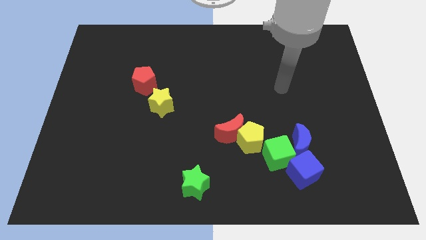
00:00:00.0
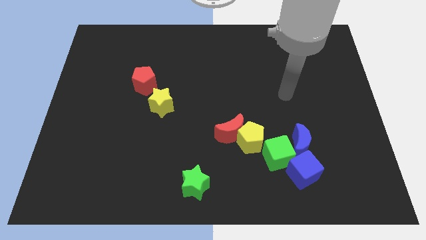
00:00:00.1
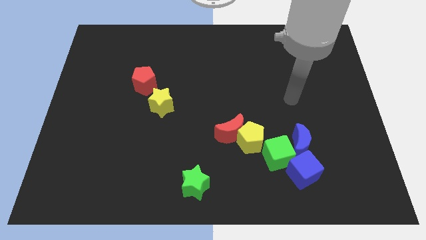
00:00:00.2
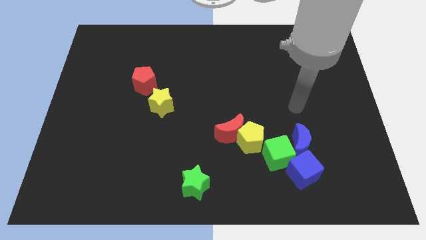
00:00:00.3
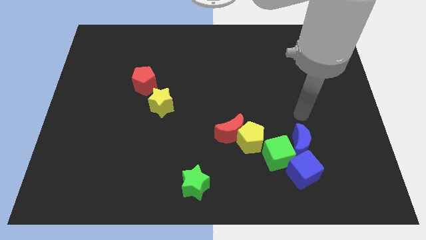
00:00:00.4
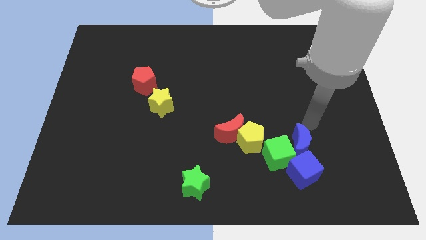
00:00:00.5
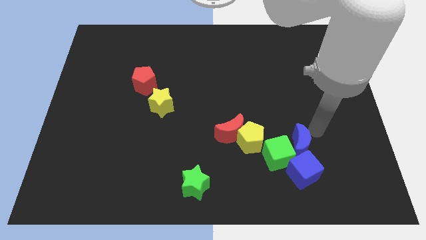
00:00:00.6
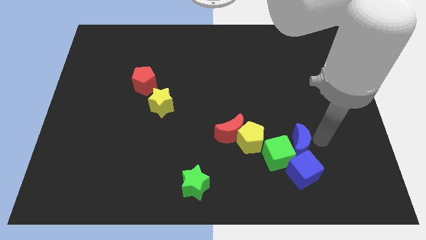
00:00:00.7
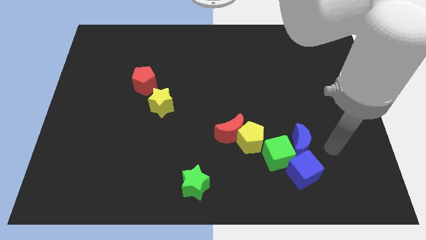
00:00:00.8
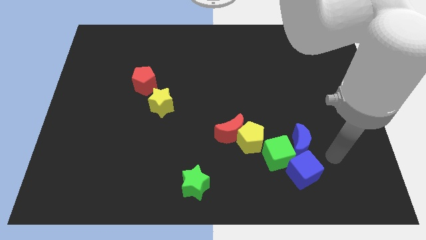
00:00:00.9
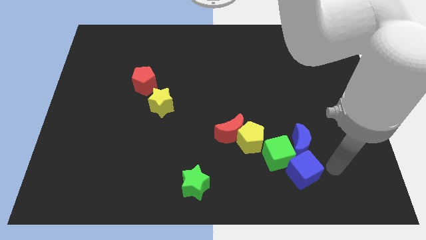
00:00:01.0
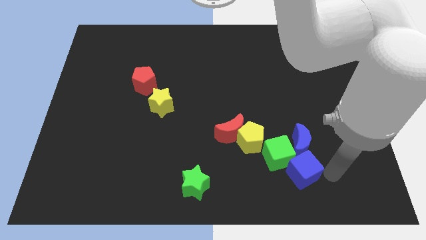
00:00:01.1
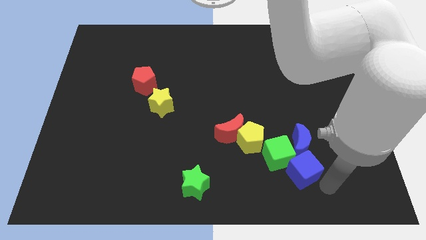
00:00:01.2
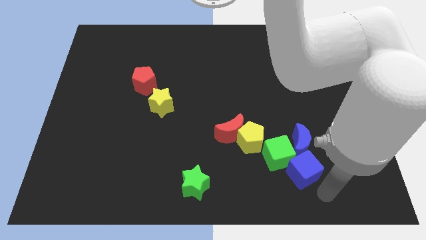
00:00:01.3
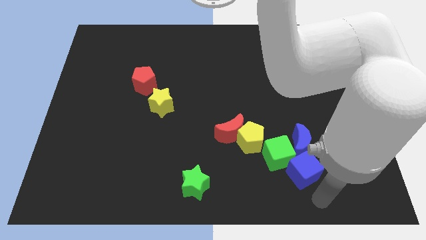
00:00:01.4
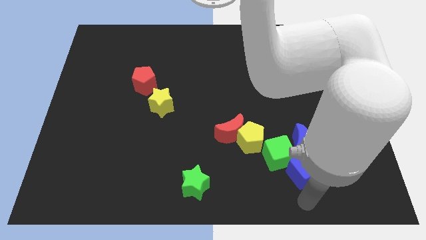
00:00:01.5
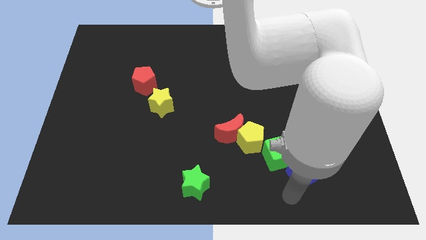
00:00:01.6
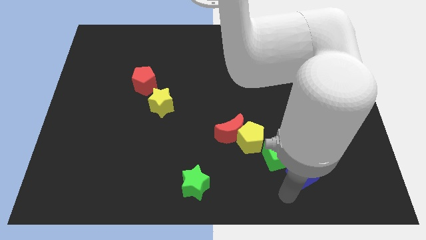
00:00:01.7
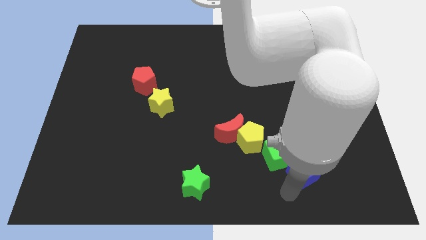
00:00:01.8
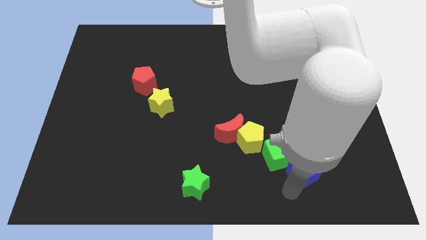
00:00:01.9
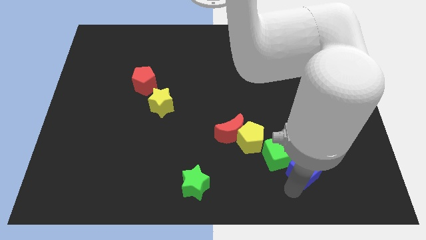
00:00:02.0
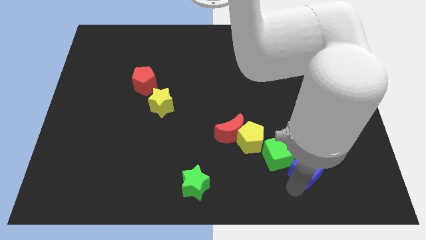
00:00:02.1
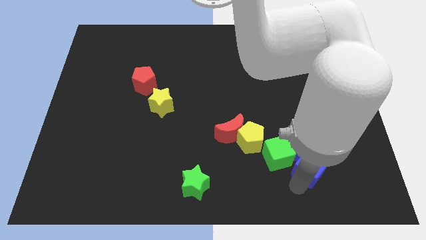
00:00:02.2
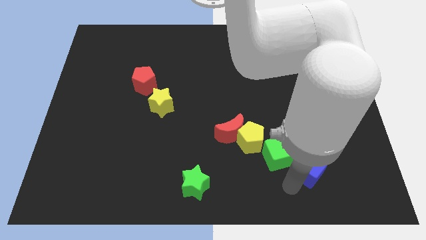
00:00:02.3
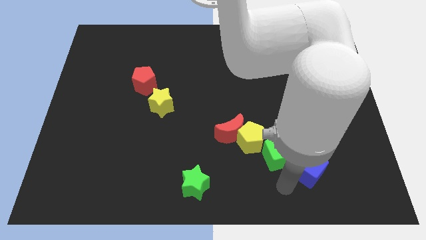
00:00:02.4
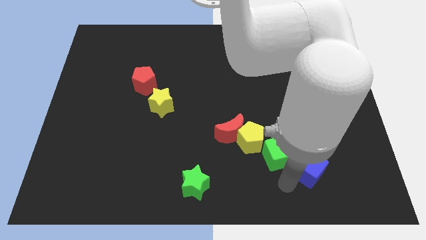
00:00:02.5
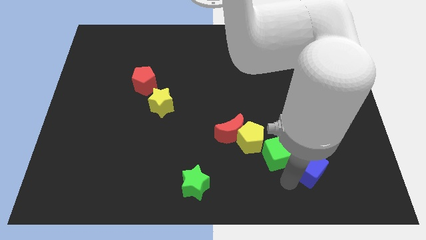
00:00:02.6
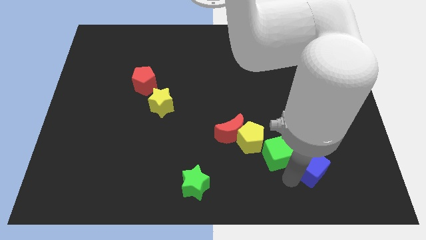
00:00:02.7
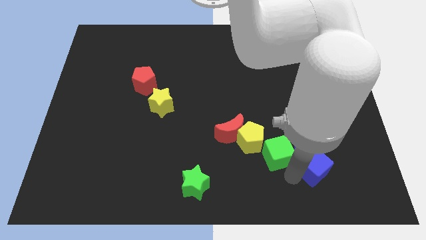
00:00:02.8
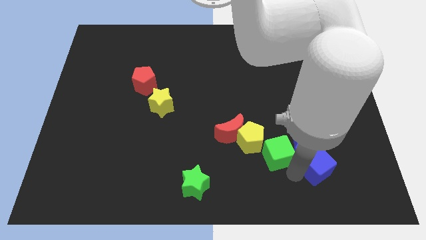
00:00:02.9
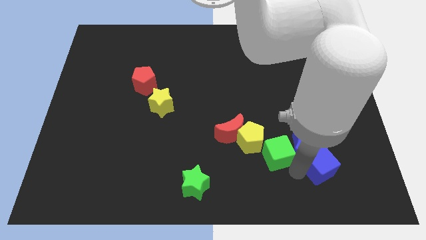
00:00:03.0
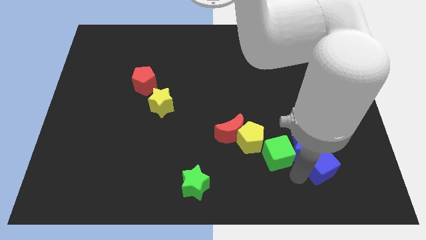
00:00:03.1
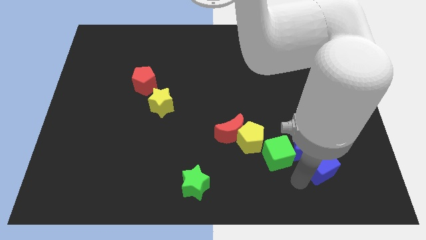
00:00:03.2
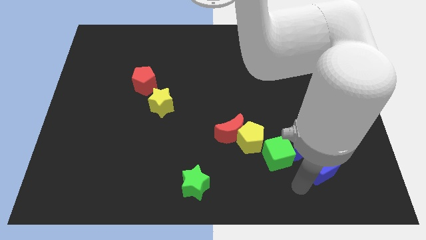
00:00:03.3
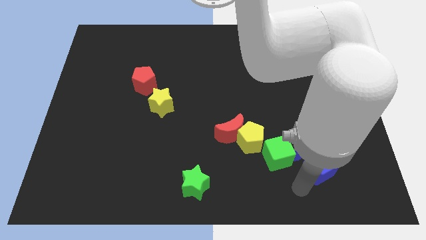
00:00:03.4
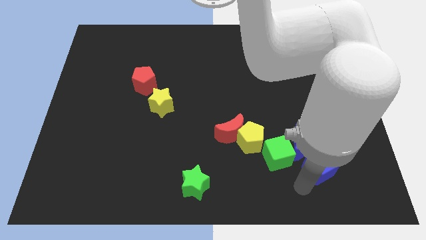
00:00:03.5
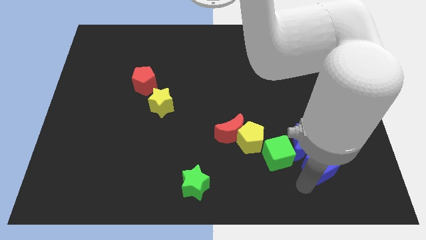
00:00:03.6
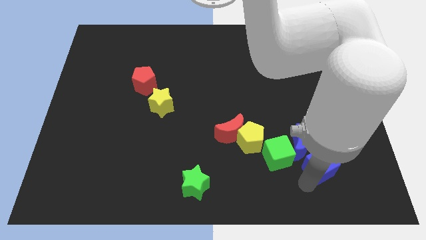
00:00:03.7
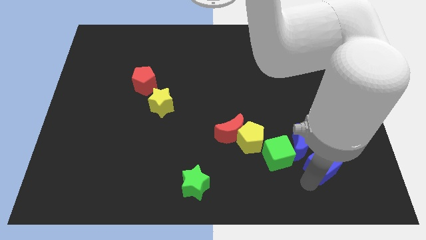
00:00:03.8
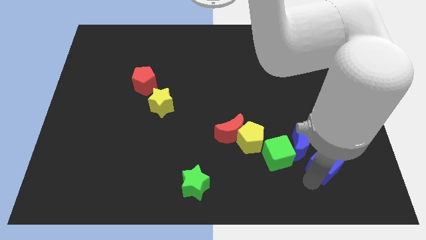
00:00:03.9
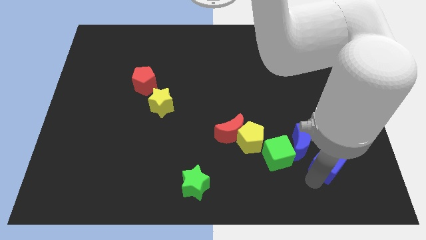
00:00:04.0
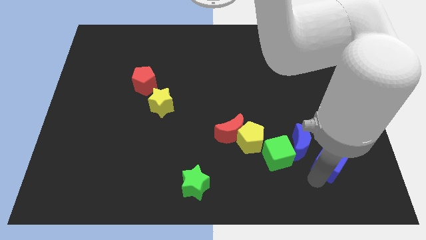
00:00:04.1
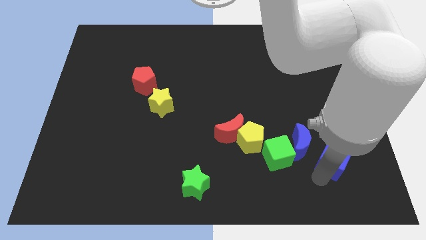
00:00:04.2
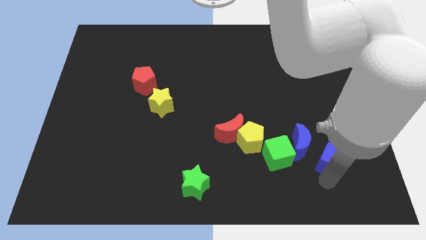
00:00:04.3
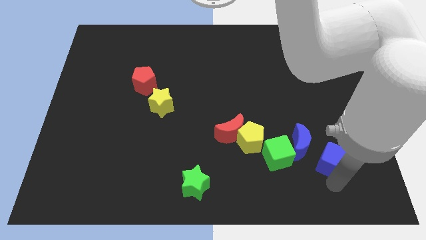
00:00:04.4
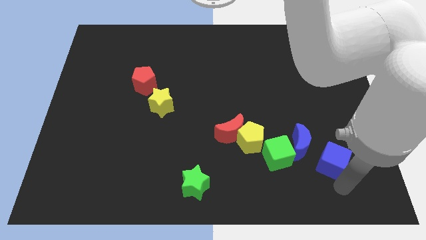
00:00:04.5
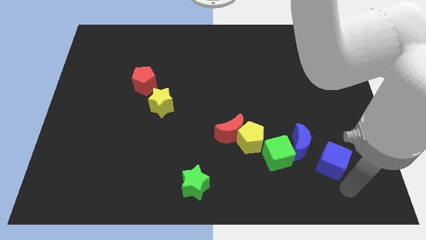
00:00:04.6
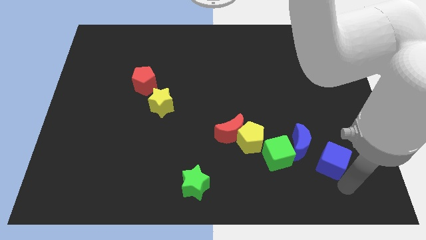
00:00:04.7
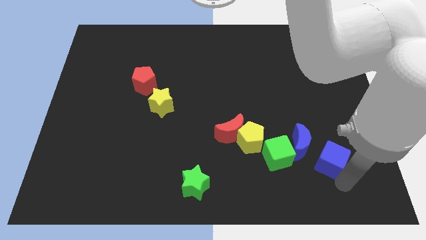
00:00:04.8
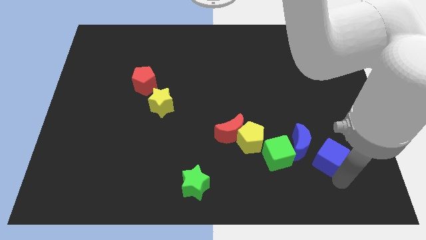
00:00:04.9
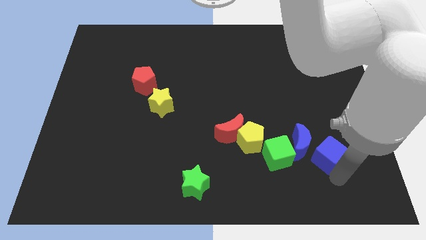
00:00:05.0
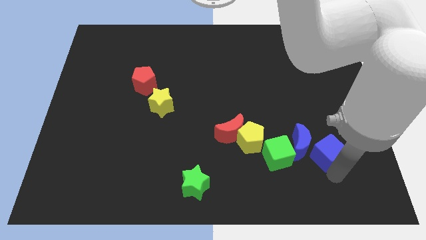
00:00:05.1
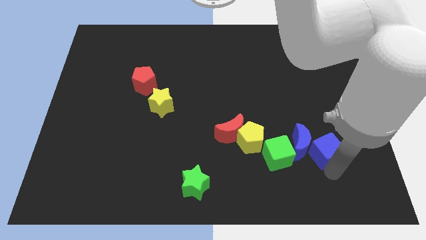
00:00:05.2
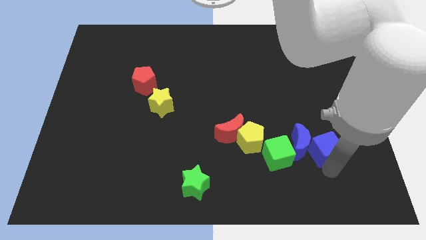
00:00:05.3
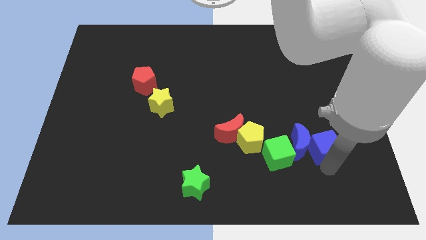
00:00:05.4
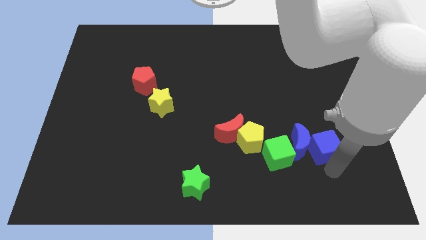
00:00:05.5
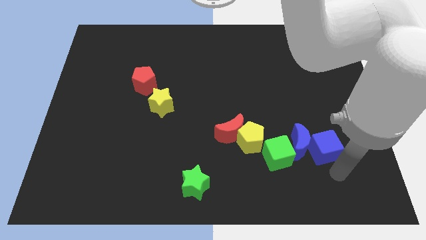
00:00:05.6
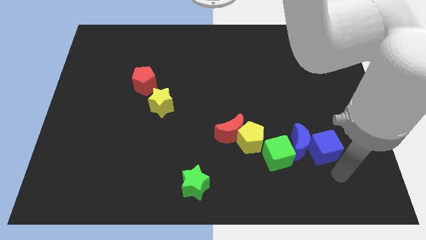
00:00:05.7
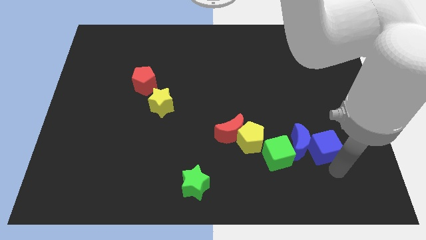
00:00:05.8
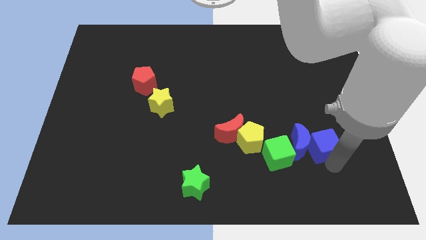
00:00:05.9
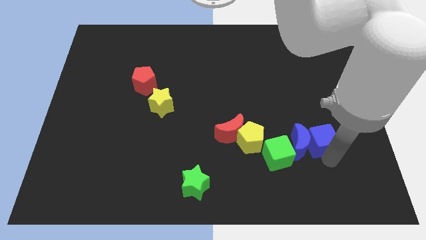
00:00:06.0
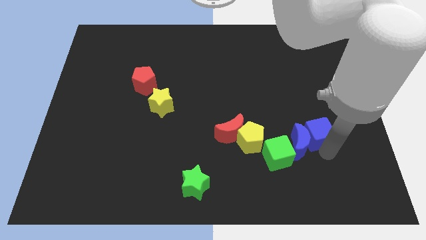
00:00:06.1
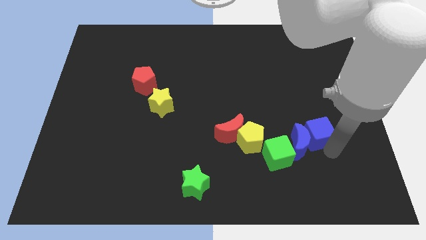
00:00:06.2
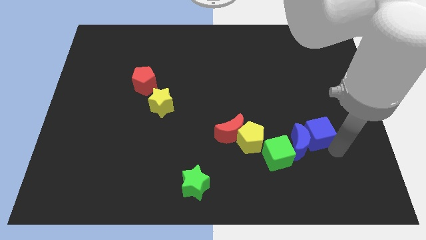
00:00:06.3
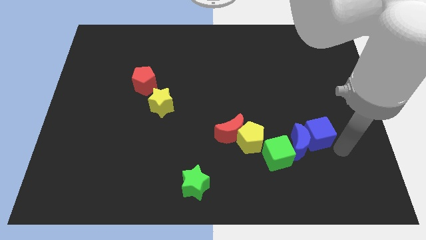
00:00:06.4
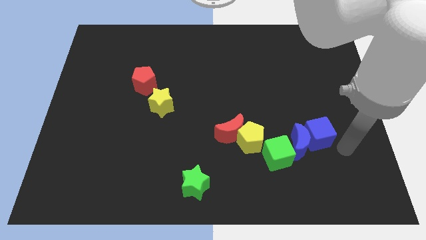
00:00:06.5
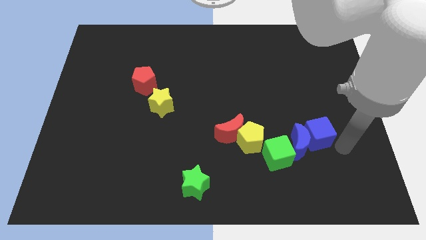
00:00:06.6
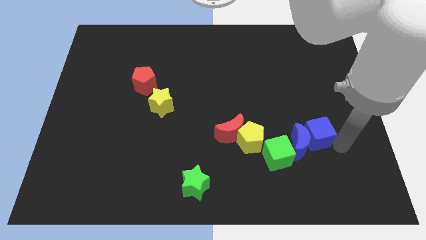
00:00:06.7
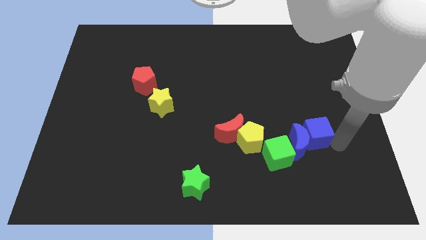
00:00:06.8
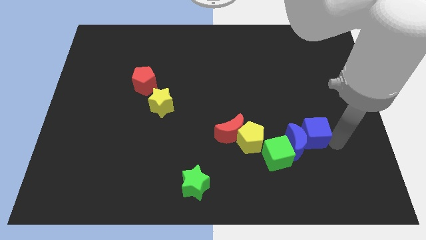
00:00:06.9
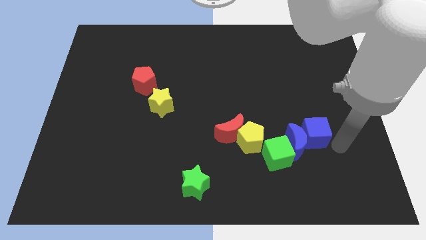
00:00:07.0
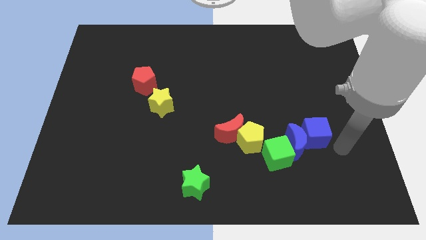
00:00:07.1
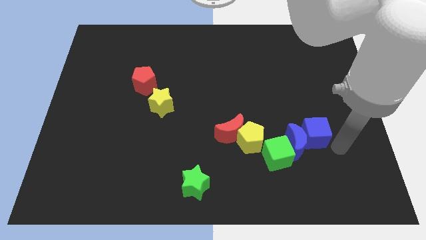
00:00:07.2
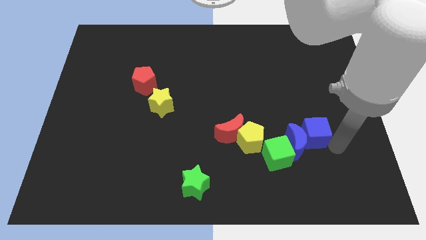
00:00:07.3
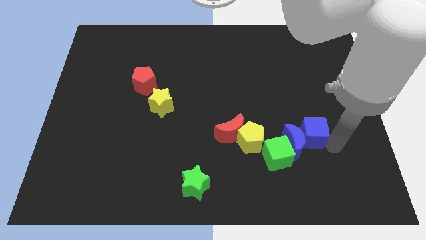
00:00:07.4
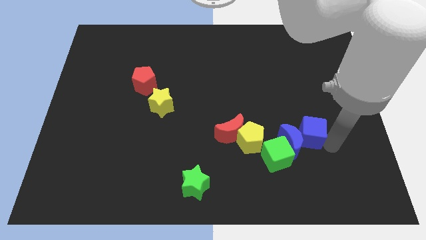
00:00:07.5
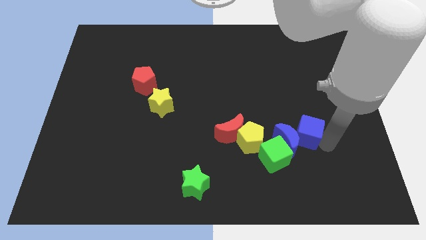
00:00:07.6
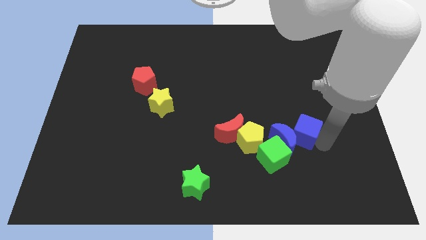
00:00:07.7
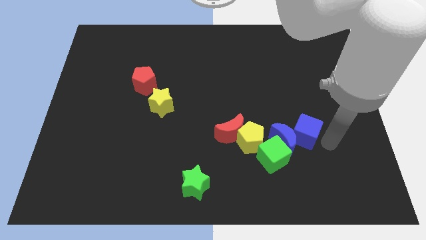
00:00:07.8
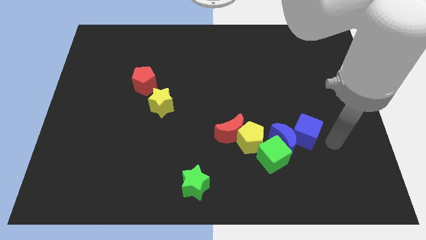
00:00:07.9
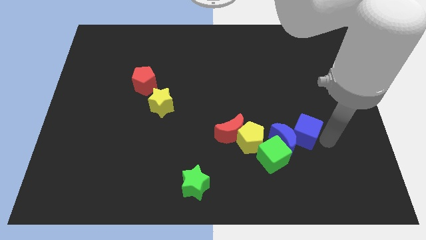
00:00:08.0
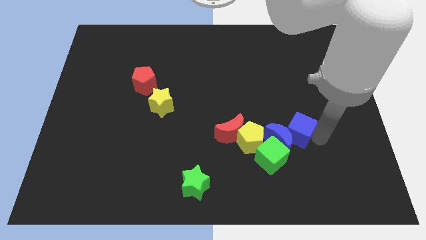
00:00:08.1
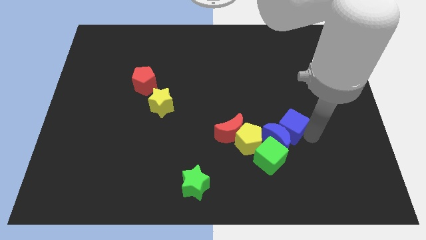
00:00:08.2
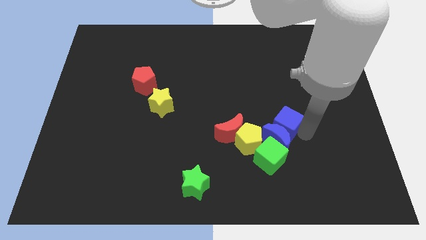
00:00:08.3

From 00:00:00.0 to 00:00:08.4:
slightly move the blue cube upwards and left
